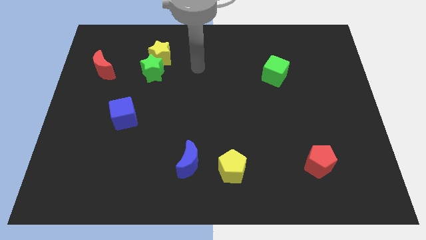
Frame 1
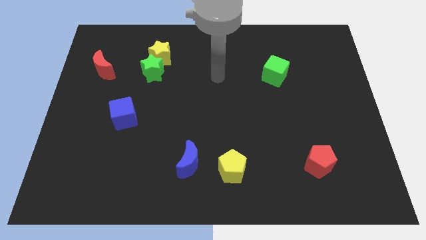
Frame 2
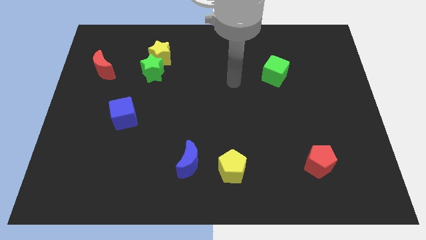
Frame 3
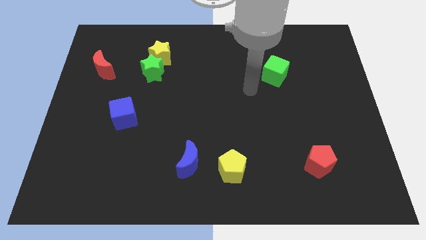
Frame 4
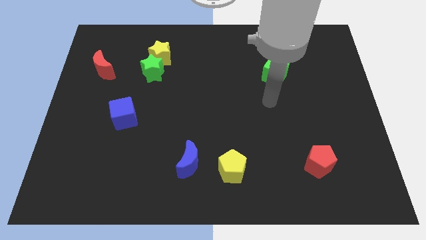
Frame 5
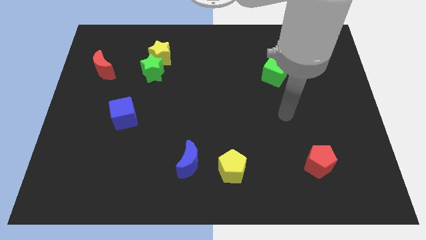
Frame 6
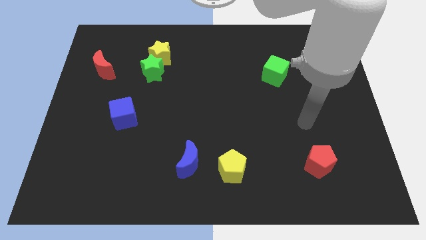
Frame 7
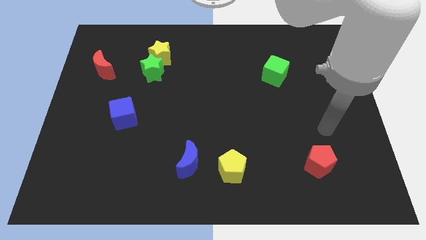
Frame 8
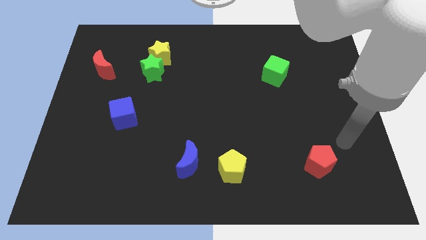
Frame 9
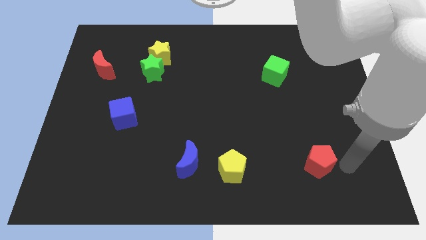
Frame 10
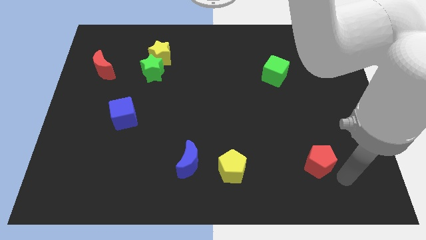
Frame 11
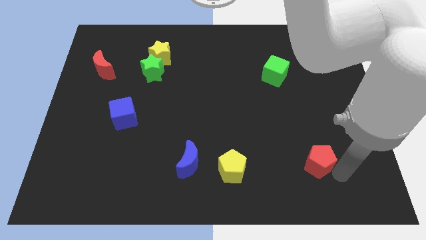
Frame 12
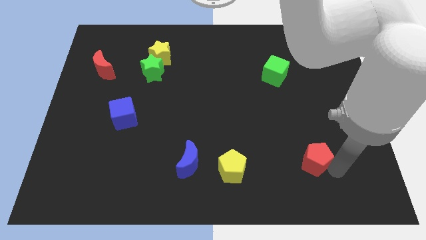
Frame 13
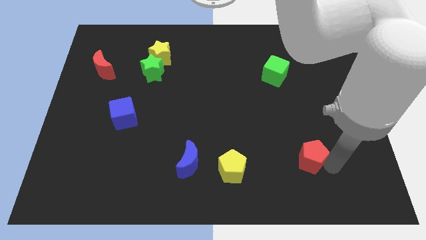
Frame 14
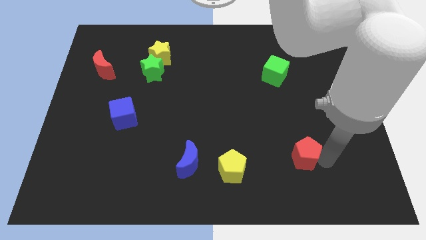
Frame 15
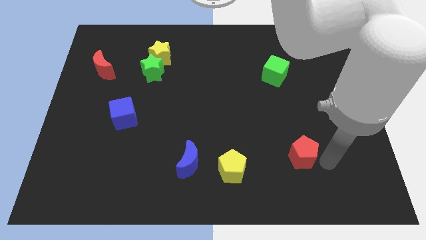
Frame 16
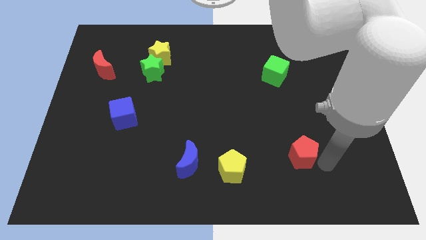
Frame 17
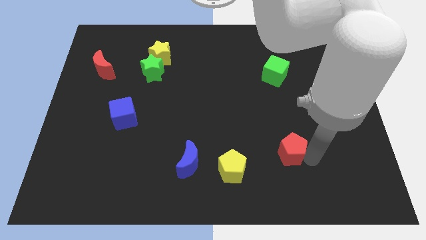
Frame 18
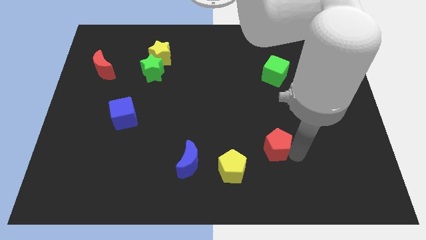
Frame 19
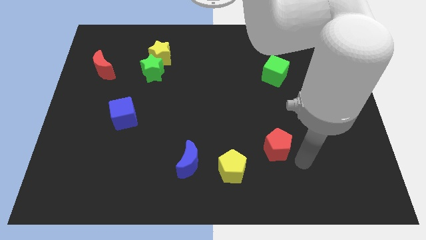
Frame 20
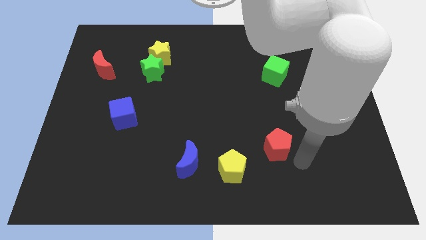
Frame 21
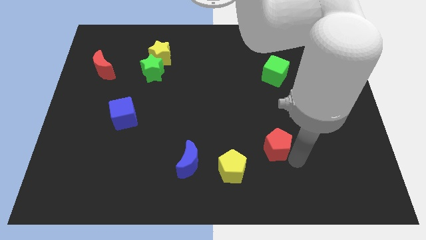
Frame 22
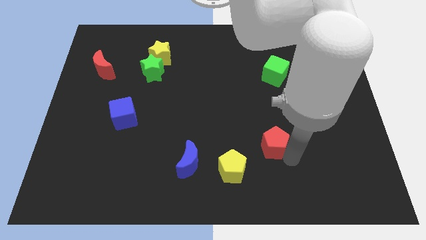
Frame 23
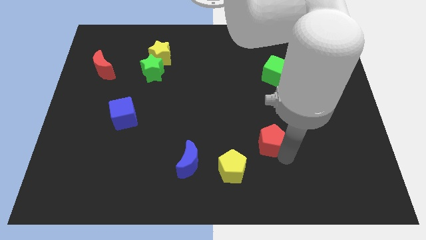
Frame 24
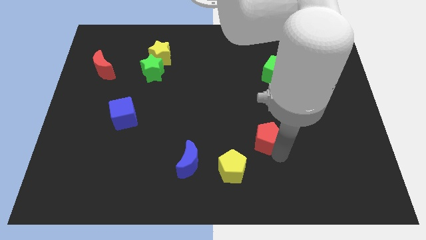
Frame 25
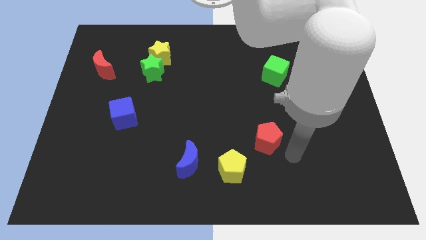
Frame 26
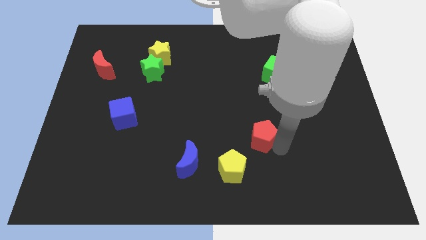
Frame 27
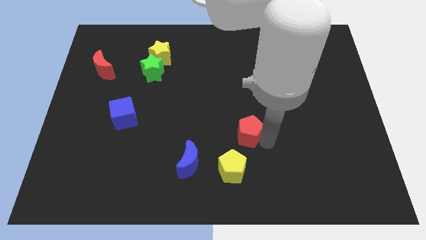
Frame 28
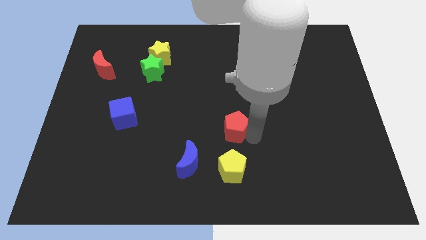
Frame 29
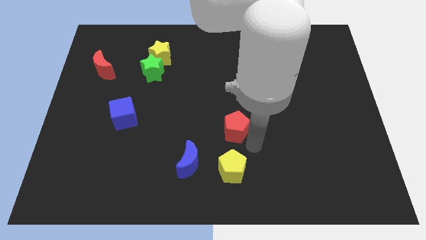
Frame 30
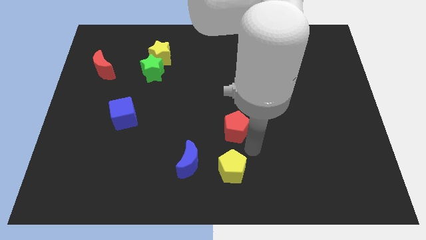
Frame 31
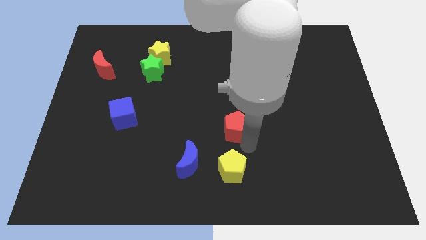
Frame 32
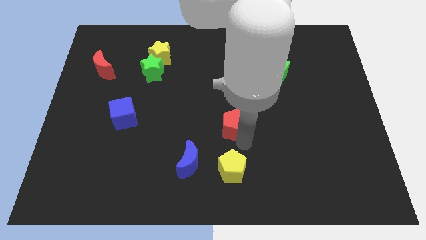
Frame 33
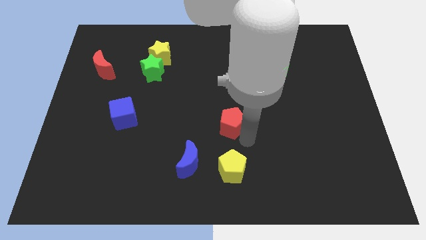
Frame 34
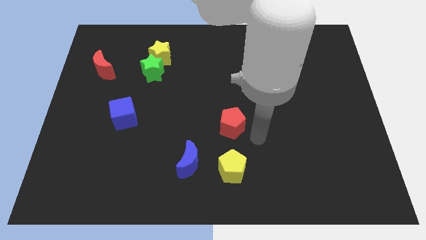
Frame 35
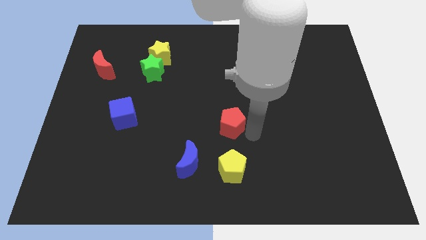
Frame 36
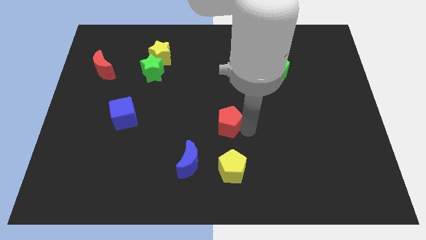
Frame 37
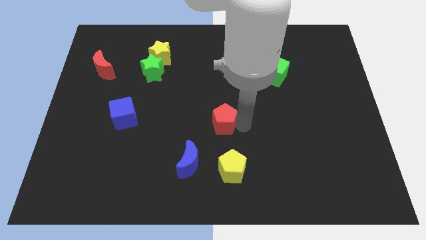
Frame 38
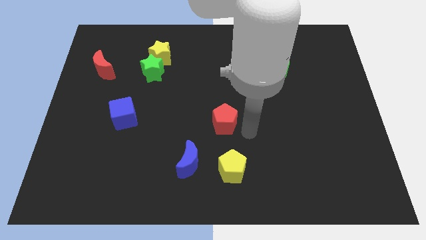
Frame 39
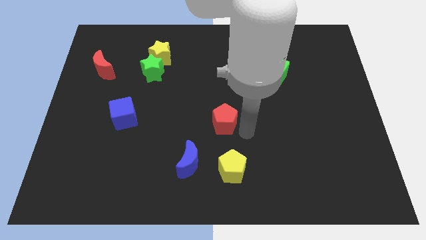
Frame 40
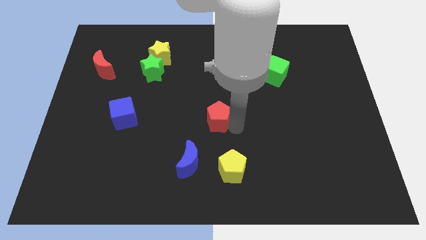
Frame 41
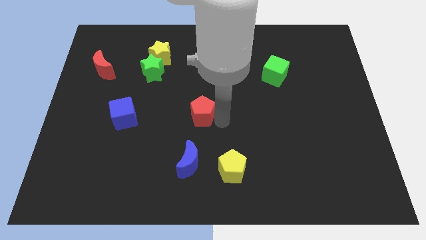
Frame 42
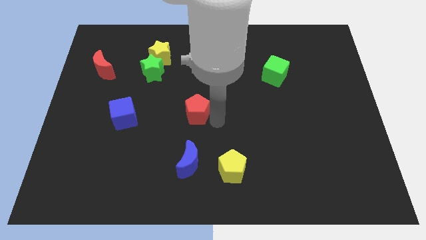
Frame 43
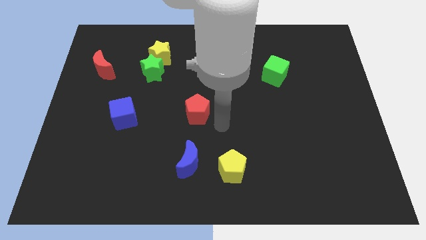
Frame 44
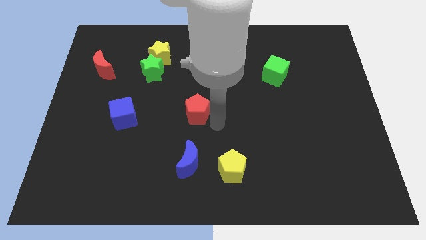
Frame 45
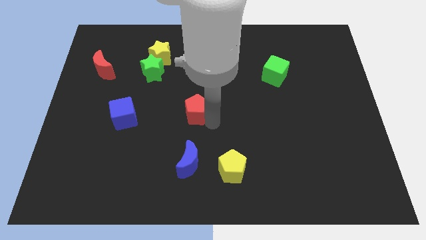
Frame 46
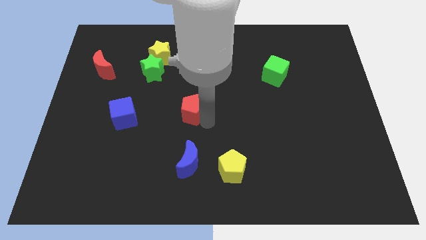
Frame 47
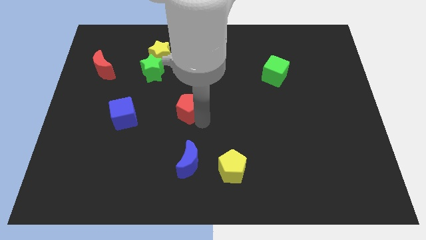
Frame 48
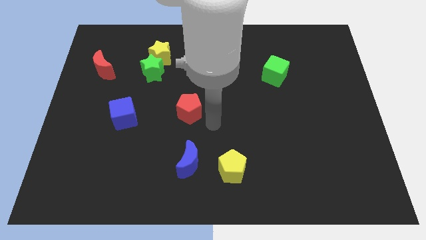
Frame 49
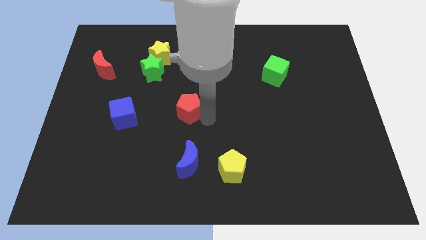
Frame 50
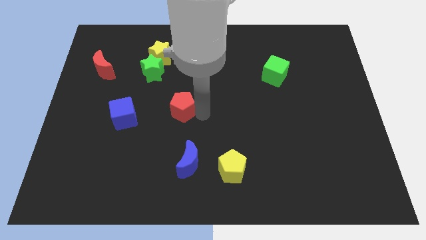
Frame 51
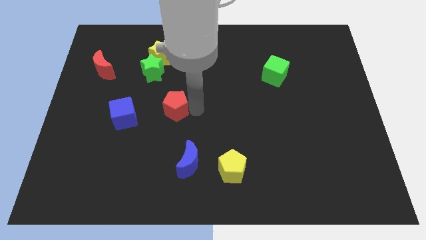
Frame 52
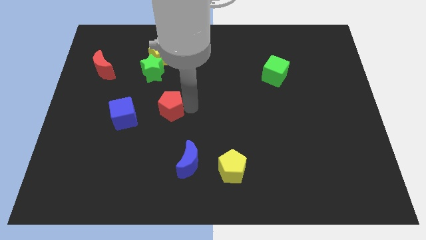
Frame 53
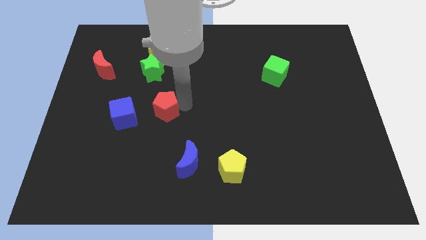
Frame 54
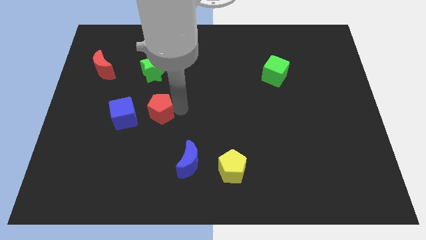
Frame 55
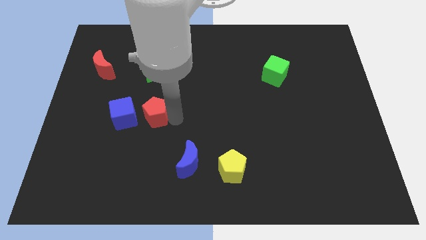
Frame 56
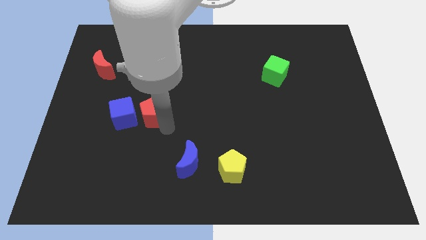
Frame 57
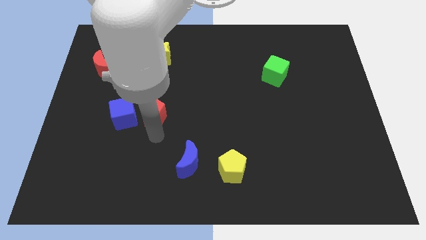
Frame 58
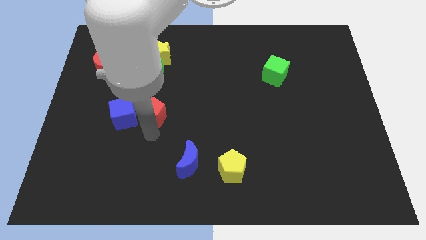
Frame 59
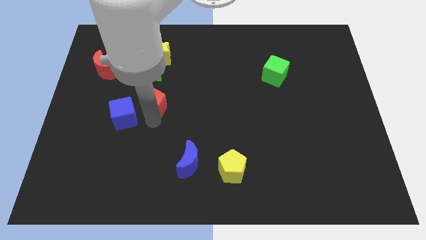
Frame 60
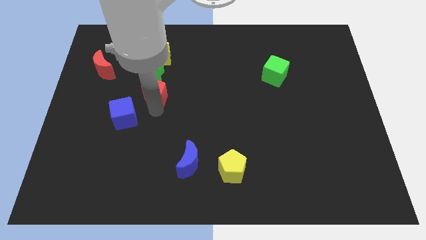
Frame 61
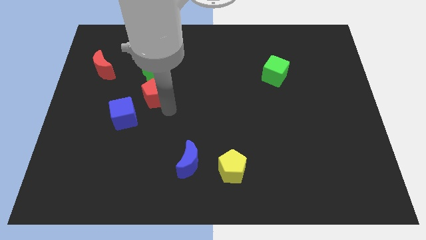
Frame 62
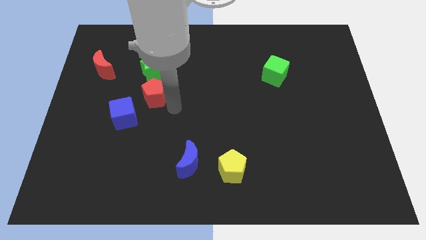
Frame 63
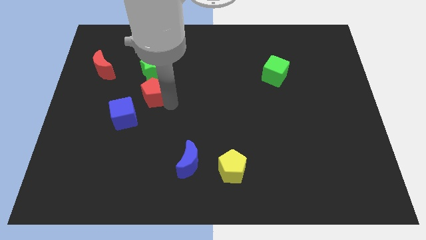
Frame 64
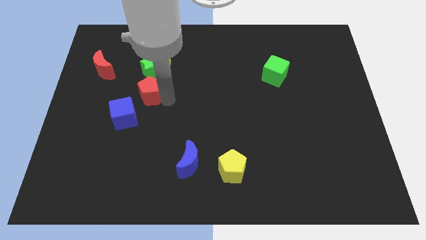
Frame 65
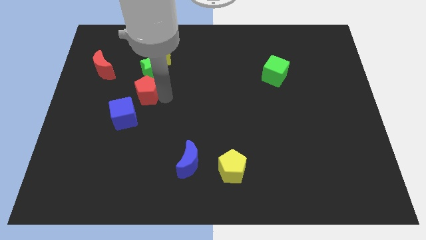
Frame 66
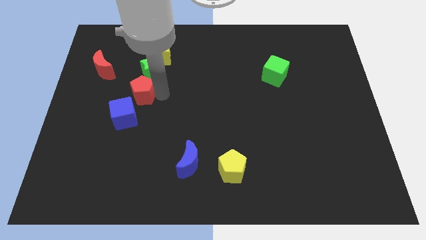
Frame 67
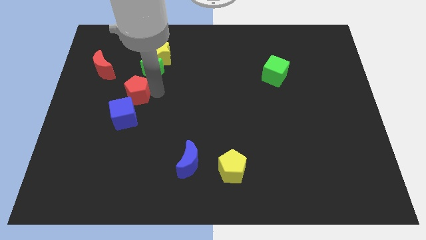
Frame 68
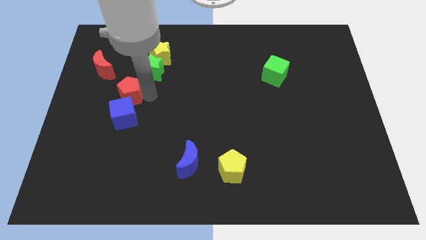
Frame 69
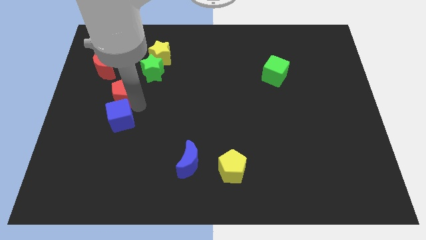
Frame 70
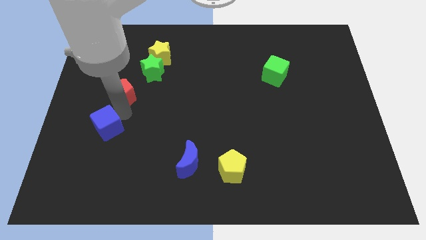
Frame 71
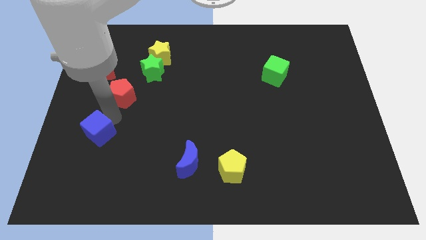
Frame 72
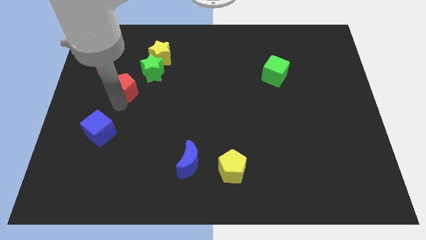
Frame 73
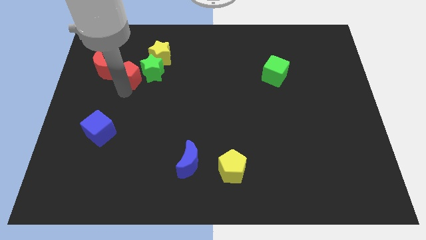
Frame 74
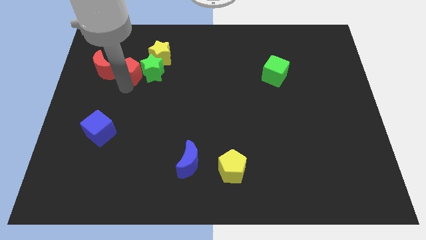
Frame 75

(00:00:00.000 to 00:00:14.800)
push the red pentagon to the top left of the green star
